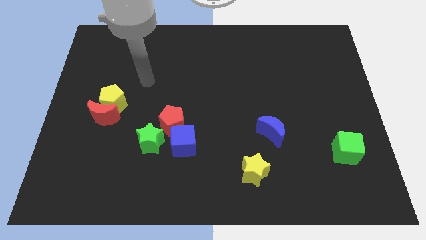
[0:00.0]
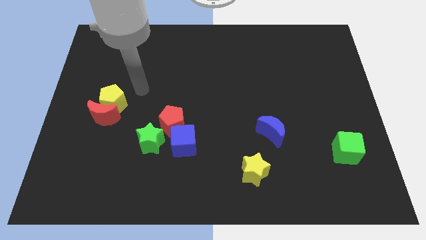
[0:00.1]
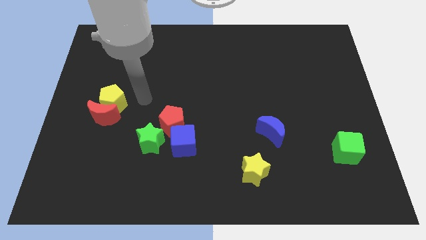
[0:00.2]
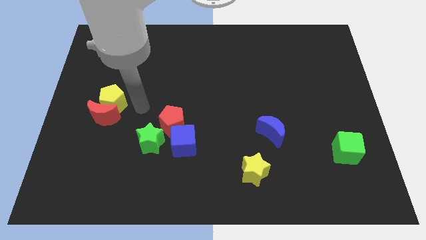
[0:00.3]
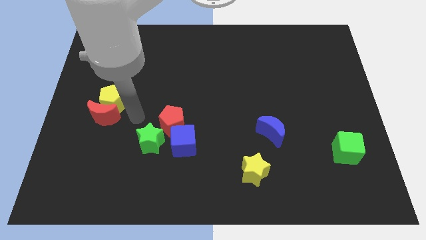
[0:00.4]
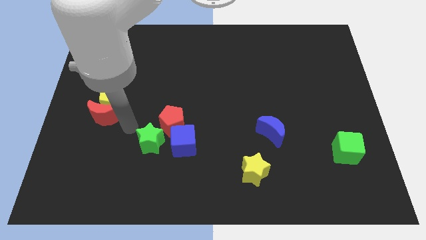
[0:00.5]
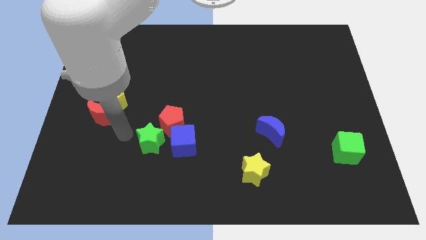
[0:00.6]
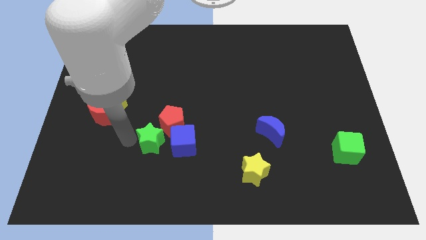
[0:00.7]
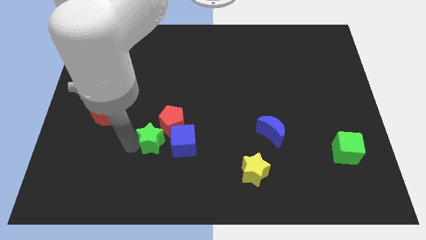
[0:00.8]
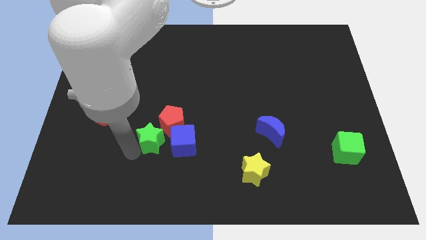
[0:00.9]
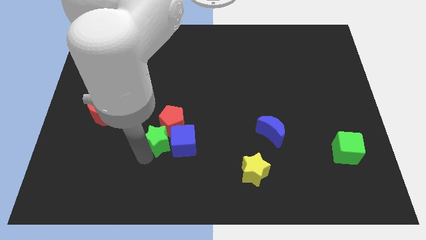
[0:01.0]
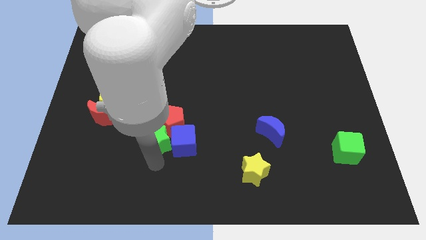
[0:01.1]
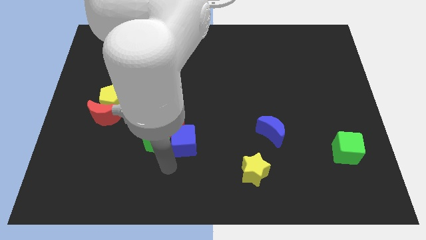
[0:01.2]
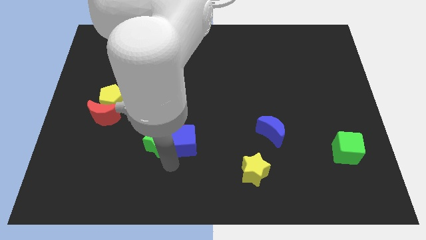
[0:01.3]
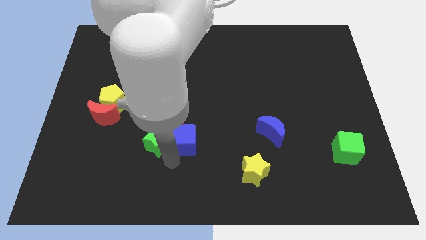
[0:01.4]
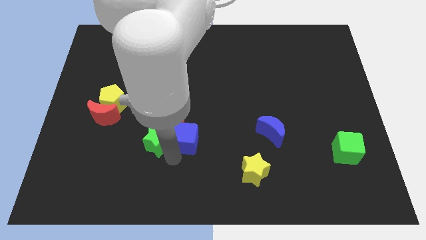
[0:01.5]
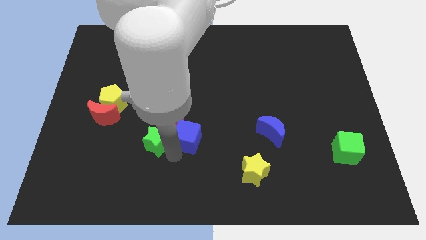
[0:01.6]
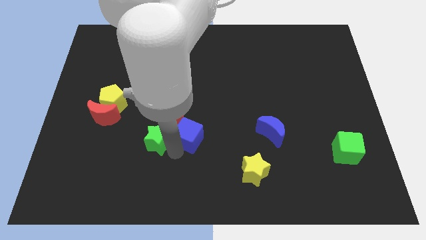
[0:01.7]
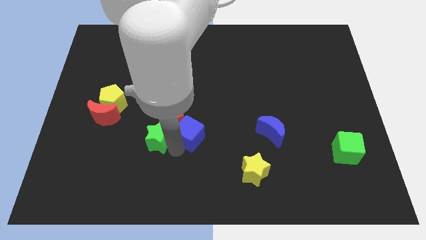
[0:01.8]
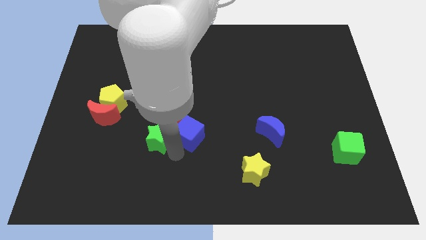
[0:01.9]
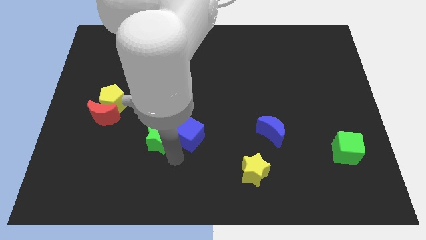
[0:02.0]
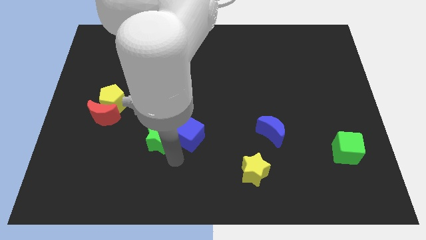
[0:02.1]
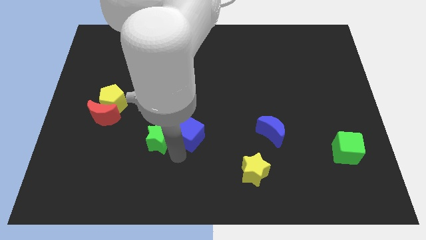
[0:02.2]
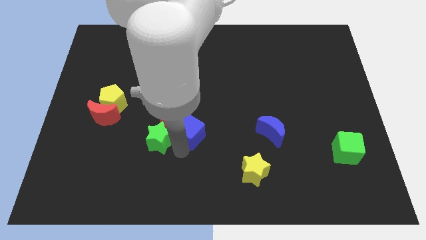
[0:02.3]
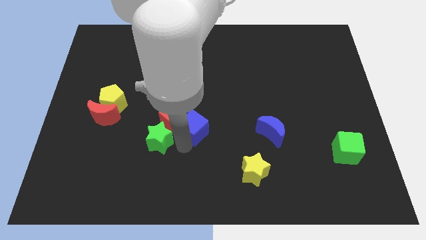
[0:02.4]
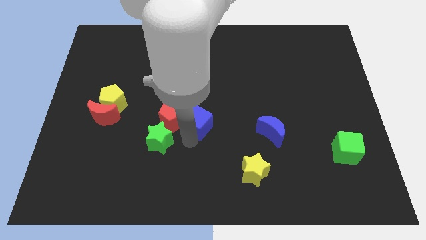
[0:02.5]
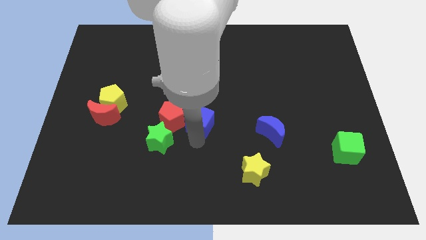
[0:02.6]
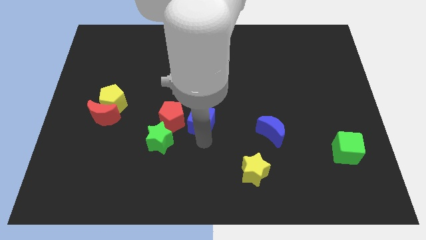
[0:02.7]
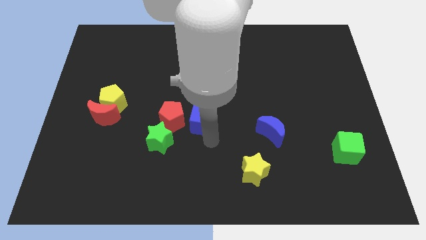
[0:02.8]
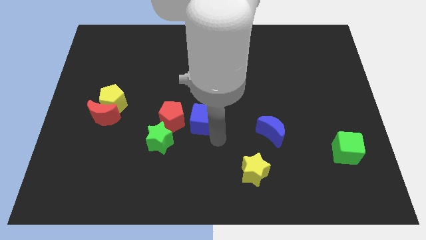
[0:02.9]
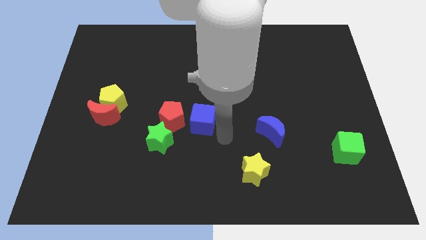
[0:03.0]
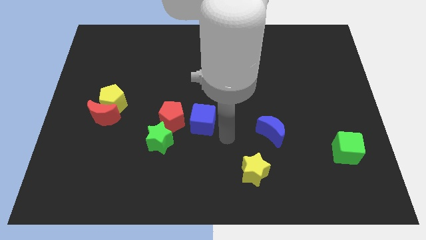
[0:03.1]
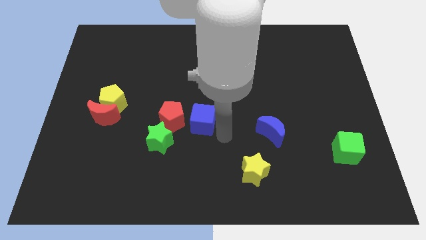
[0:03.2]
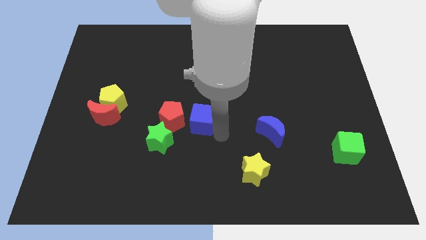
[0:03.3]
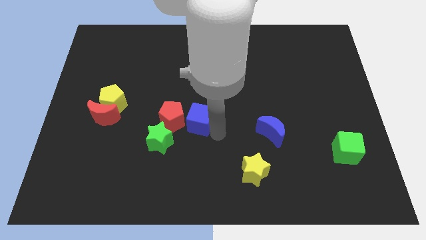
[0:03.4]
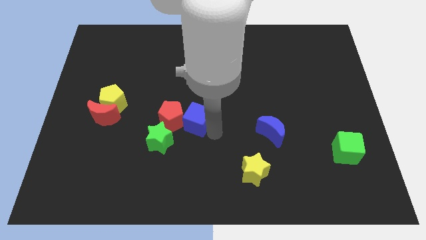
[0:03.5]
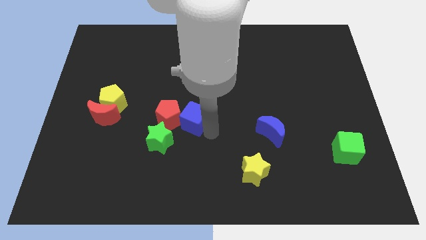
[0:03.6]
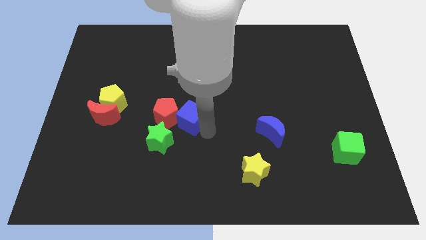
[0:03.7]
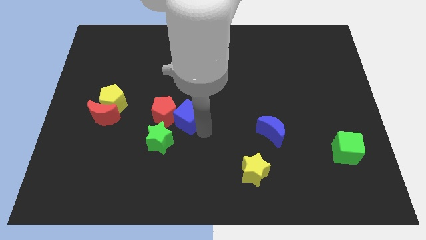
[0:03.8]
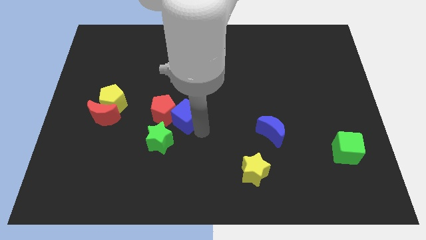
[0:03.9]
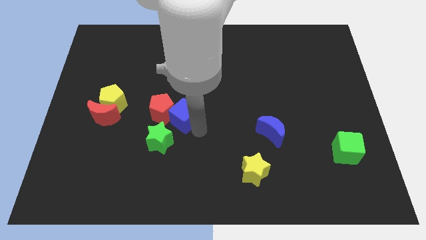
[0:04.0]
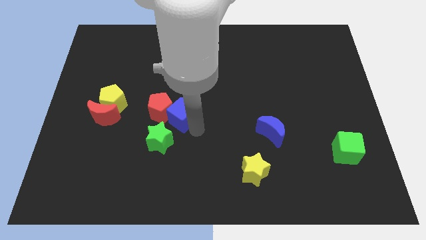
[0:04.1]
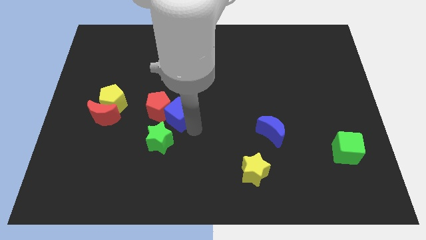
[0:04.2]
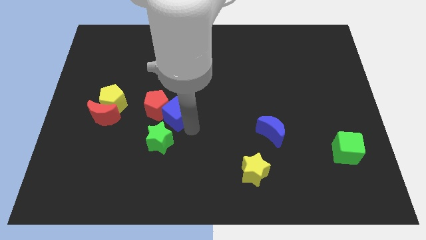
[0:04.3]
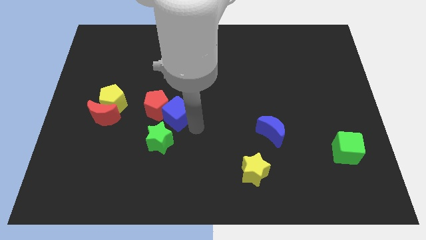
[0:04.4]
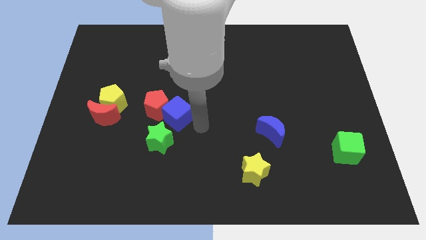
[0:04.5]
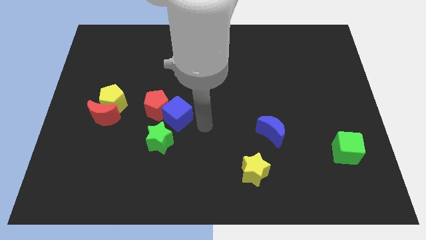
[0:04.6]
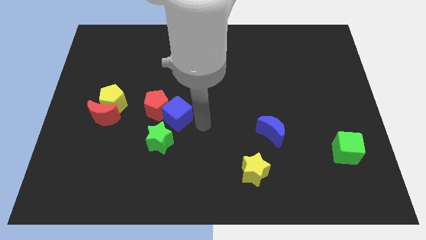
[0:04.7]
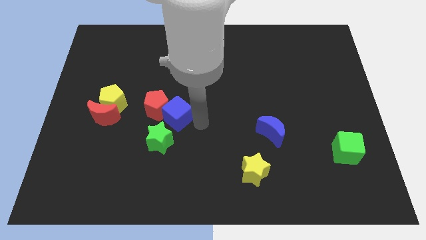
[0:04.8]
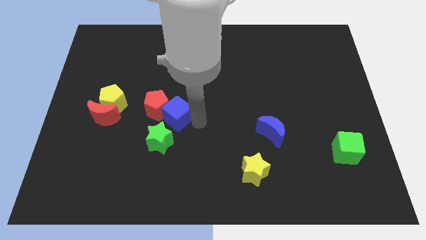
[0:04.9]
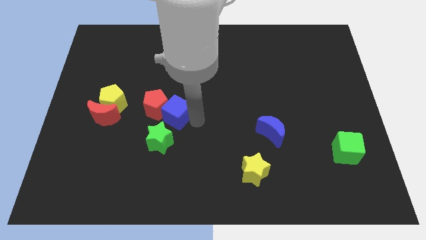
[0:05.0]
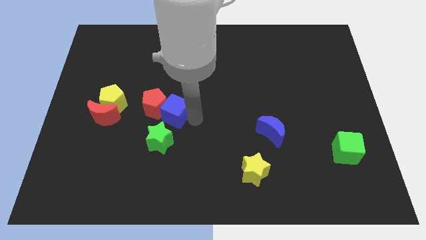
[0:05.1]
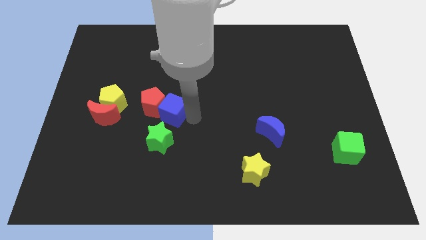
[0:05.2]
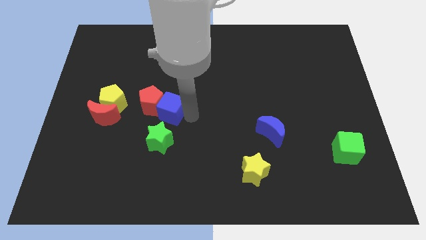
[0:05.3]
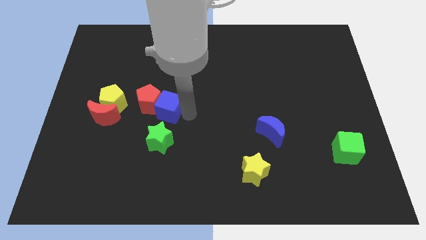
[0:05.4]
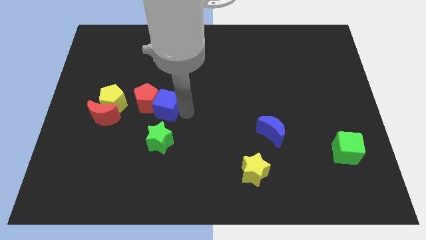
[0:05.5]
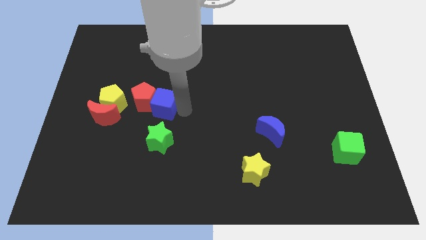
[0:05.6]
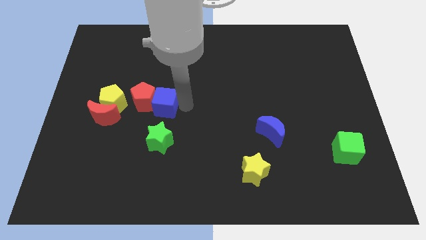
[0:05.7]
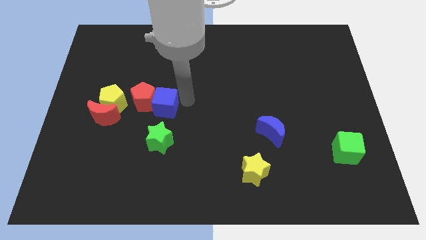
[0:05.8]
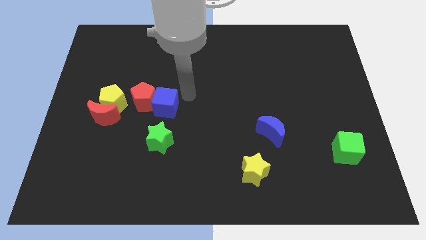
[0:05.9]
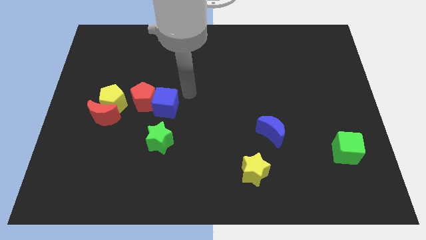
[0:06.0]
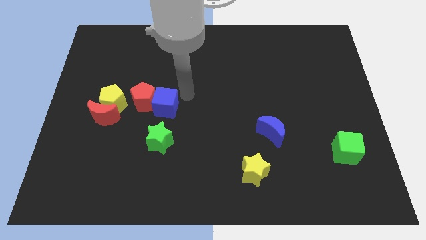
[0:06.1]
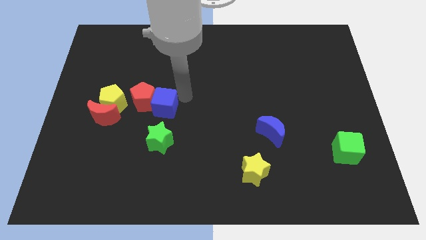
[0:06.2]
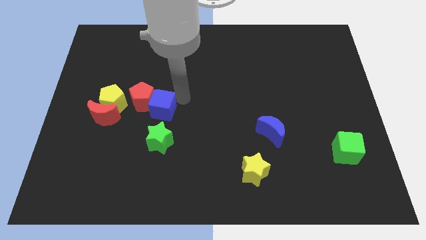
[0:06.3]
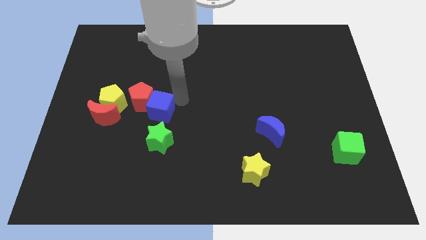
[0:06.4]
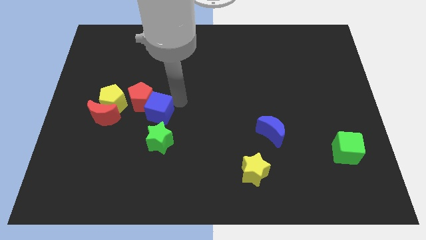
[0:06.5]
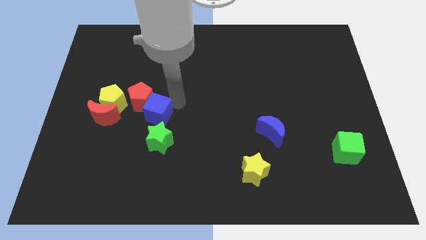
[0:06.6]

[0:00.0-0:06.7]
push the blue cube to the top left of the green star

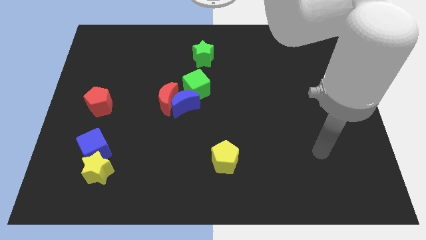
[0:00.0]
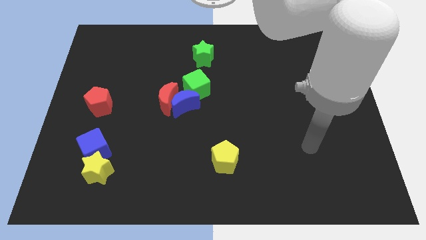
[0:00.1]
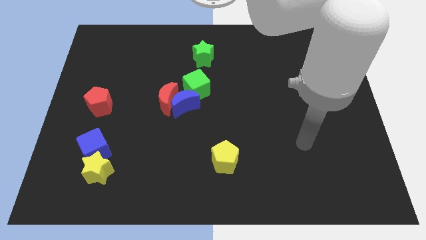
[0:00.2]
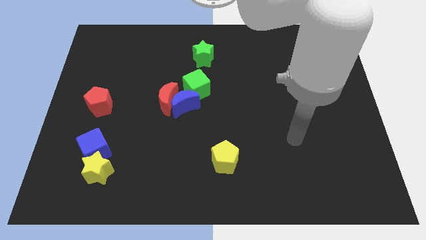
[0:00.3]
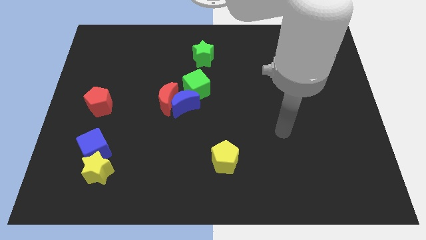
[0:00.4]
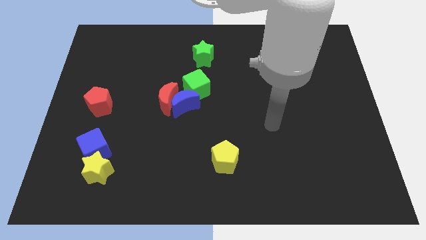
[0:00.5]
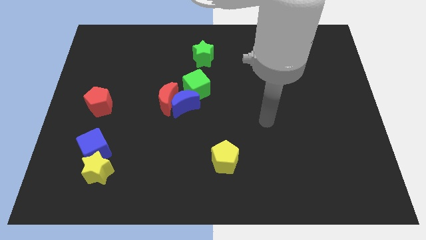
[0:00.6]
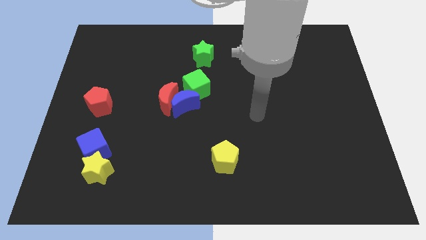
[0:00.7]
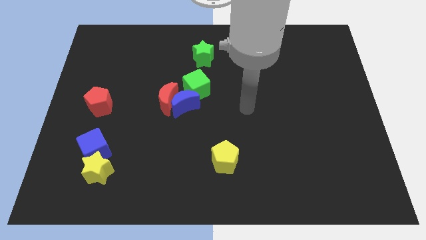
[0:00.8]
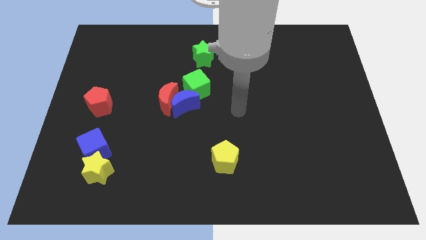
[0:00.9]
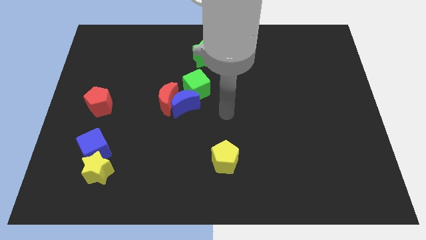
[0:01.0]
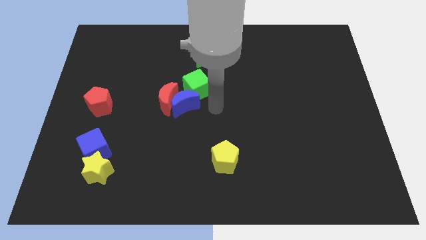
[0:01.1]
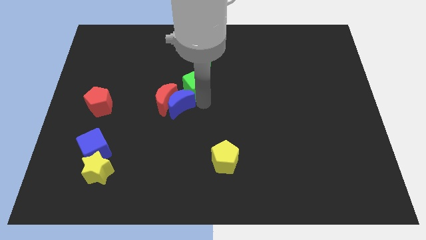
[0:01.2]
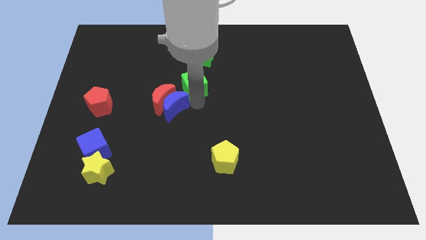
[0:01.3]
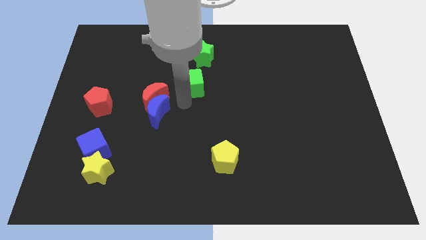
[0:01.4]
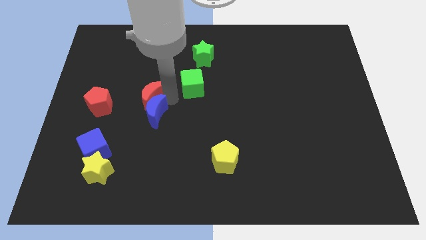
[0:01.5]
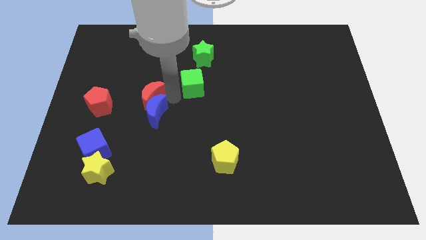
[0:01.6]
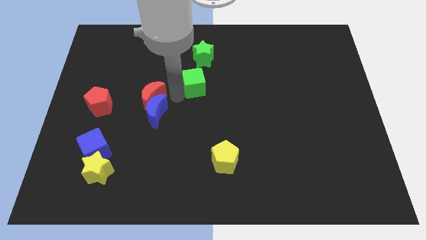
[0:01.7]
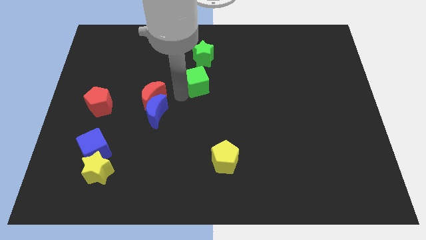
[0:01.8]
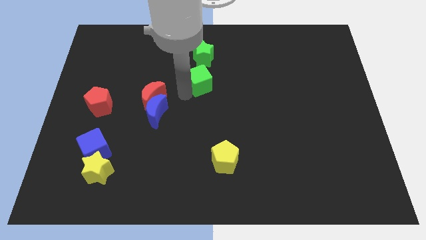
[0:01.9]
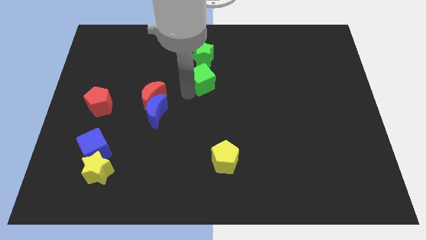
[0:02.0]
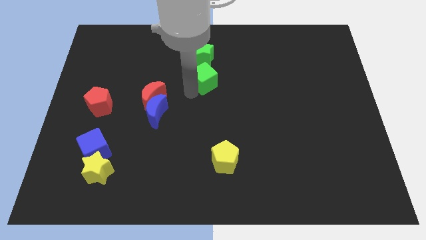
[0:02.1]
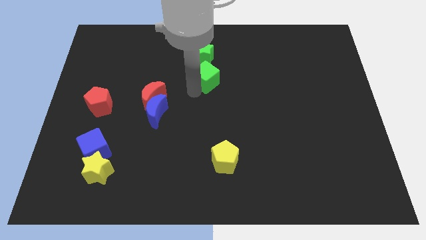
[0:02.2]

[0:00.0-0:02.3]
push the green cube to the bottom right of the green star
